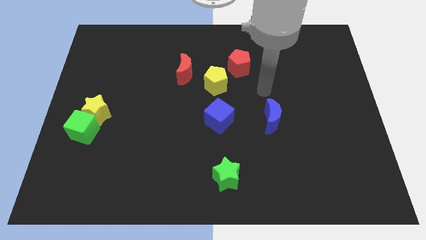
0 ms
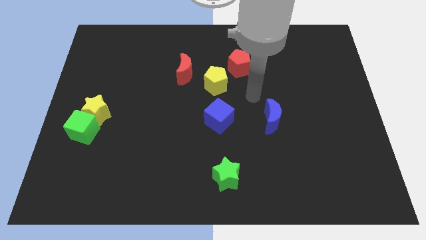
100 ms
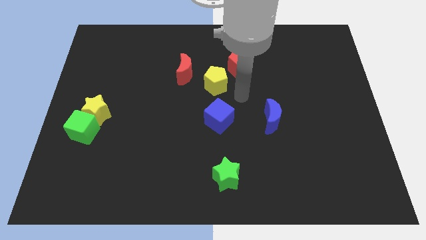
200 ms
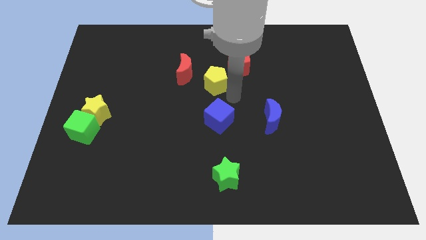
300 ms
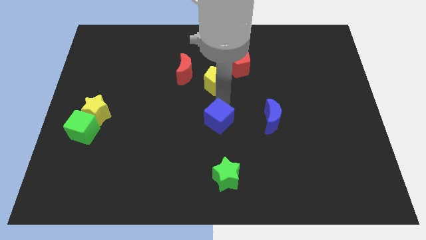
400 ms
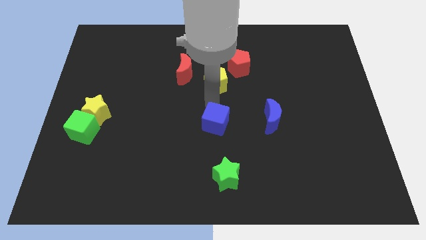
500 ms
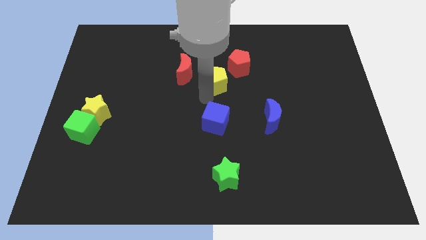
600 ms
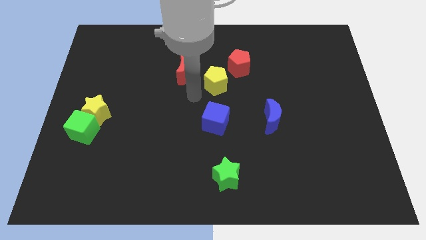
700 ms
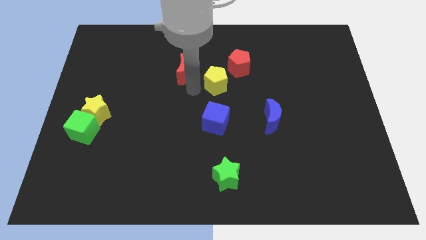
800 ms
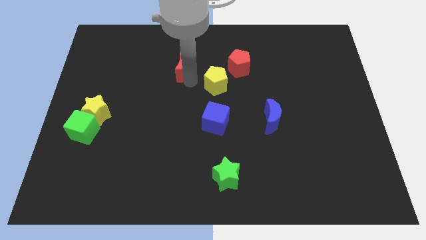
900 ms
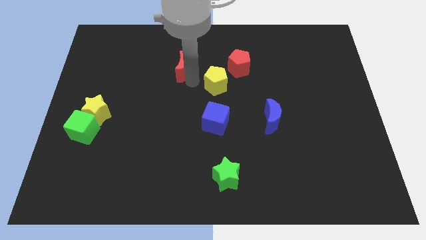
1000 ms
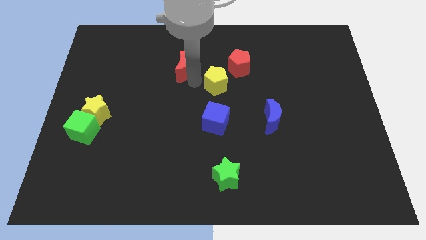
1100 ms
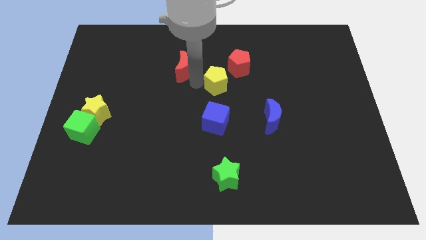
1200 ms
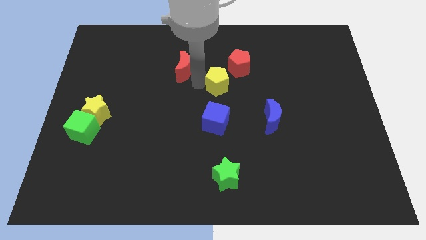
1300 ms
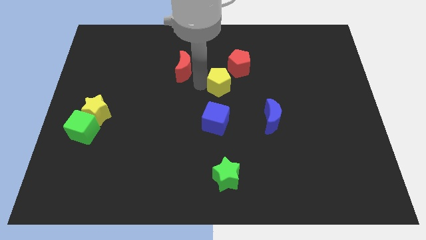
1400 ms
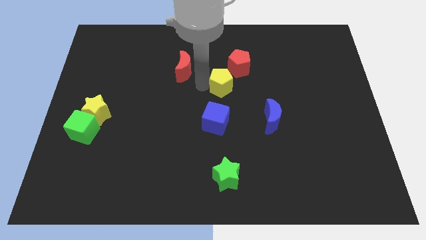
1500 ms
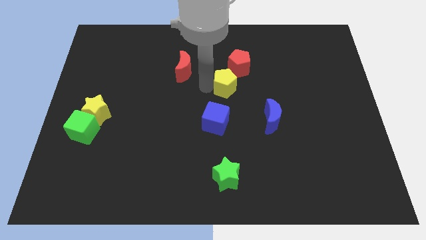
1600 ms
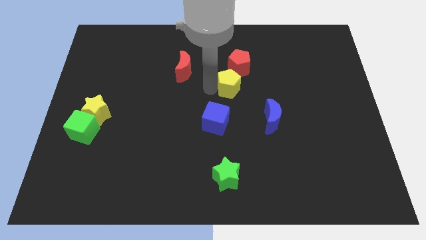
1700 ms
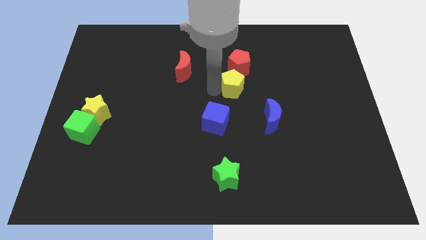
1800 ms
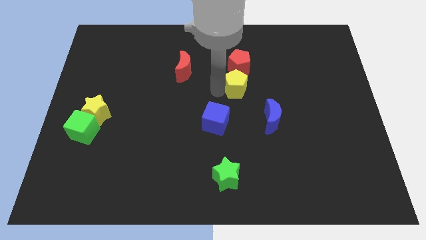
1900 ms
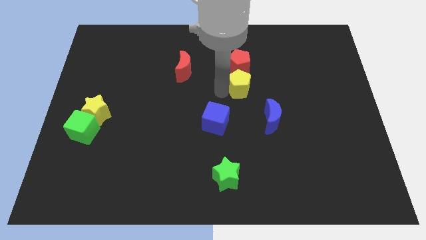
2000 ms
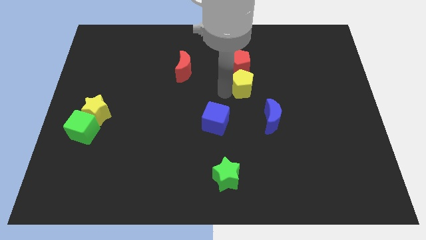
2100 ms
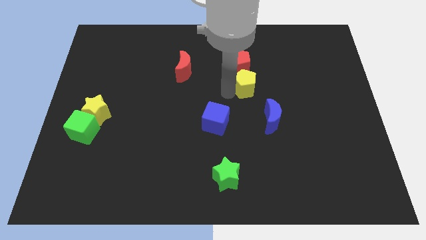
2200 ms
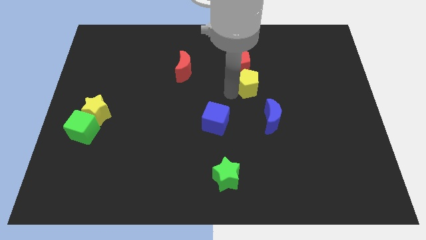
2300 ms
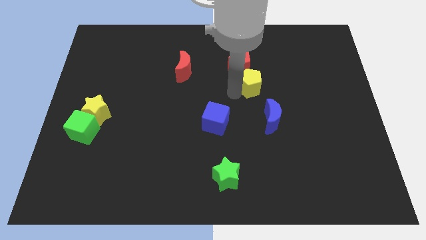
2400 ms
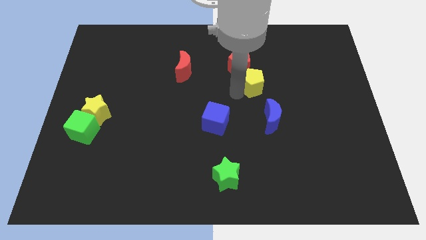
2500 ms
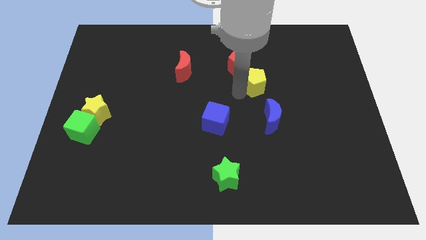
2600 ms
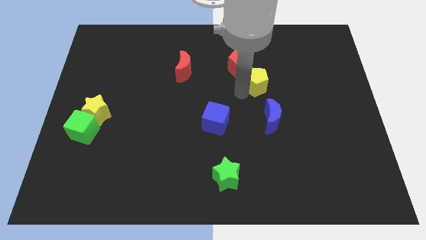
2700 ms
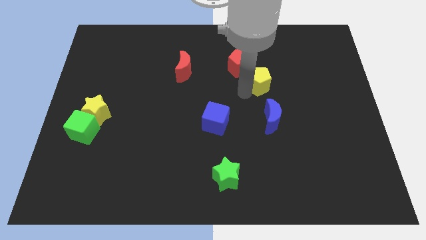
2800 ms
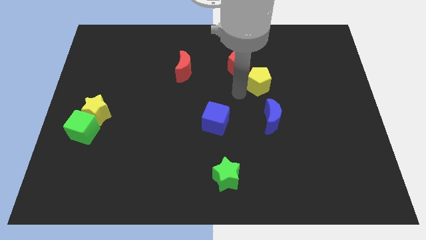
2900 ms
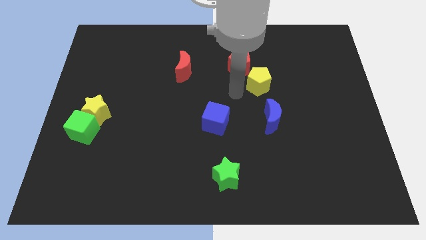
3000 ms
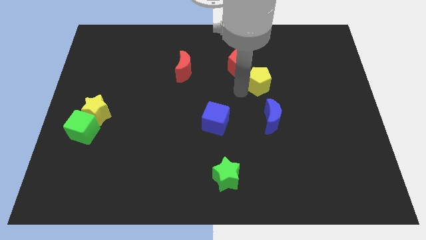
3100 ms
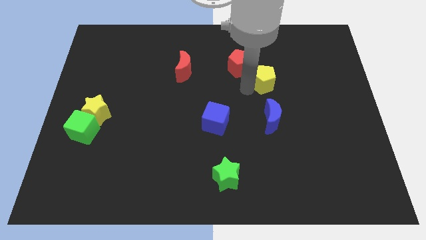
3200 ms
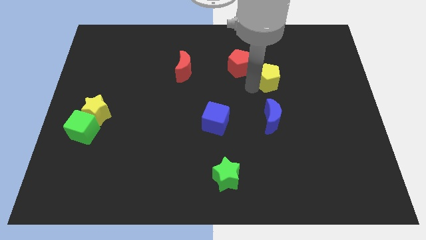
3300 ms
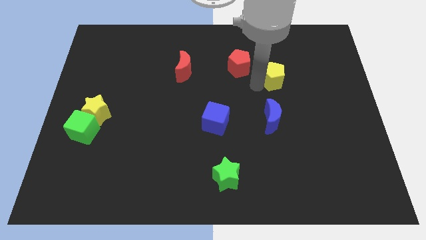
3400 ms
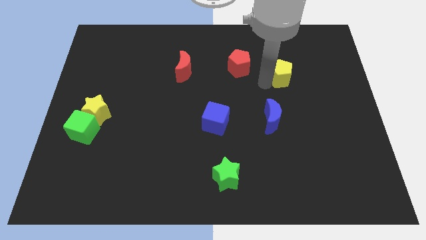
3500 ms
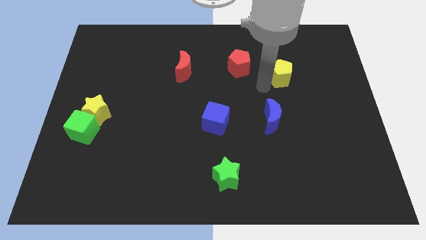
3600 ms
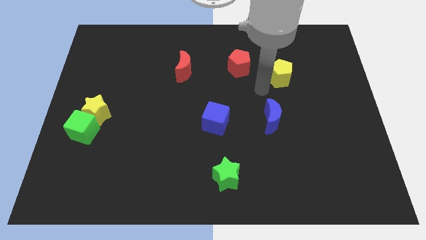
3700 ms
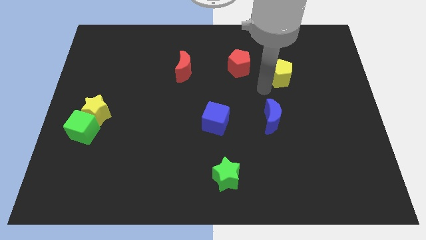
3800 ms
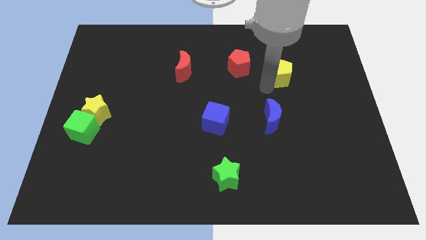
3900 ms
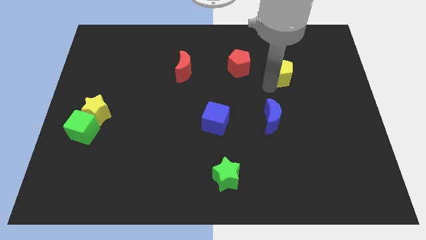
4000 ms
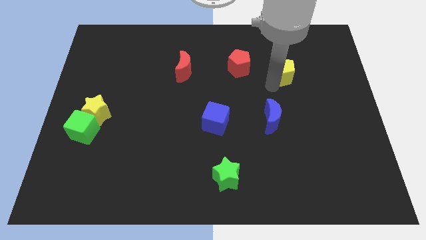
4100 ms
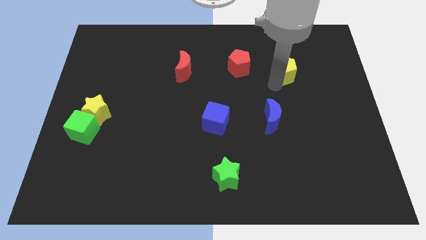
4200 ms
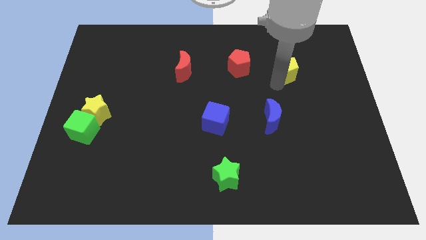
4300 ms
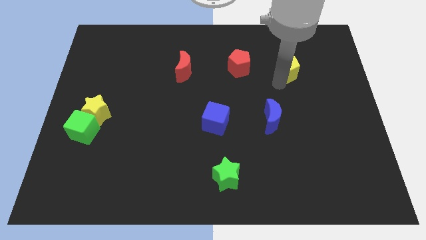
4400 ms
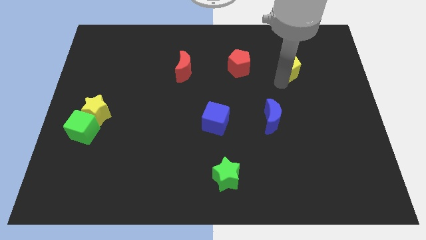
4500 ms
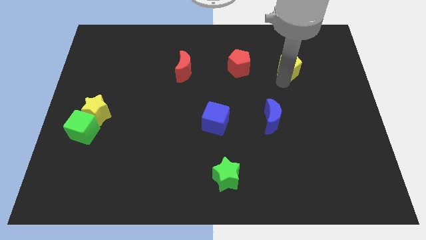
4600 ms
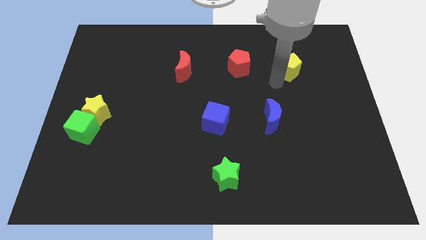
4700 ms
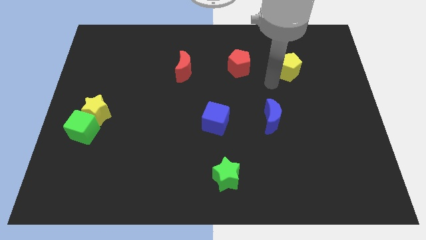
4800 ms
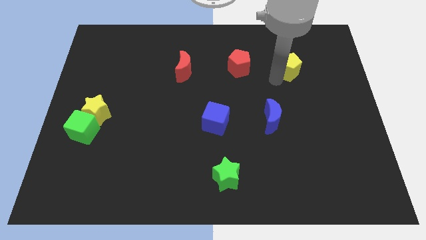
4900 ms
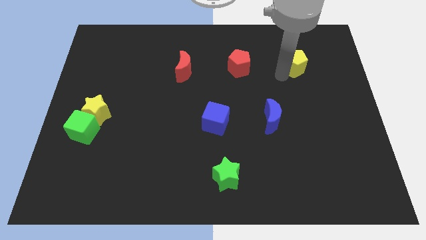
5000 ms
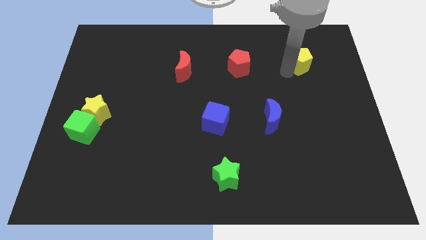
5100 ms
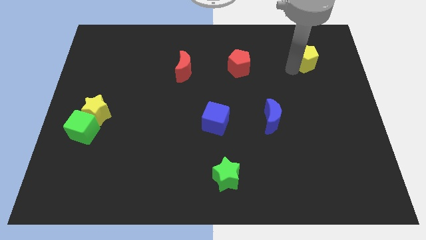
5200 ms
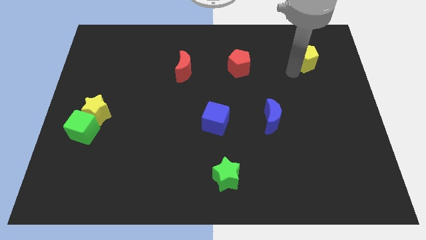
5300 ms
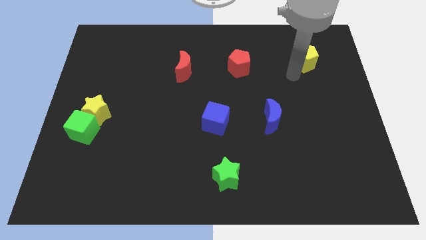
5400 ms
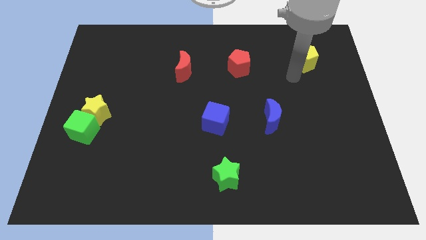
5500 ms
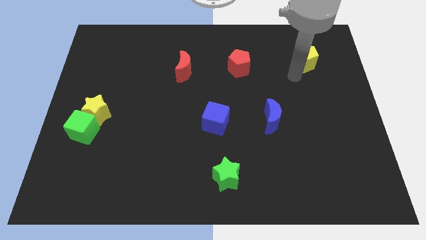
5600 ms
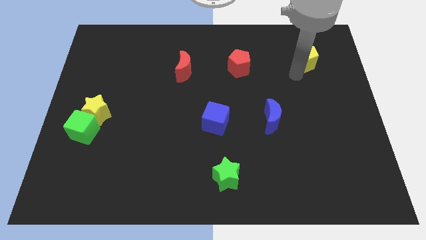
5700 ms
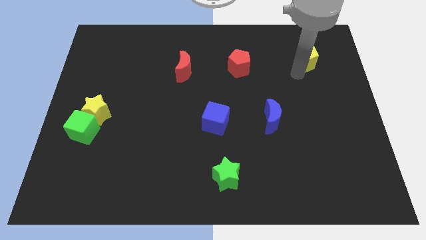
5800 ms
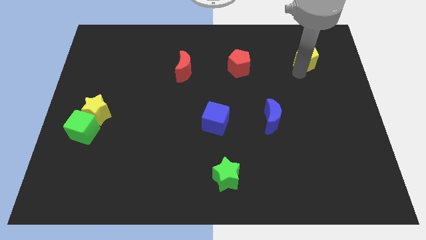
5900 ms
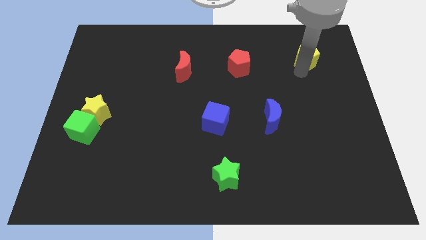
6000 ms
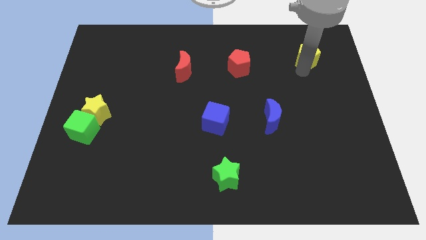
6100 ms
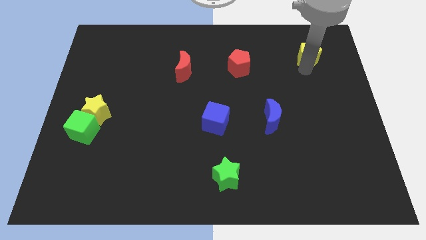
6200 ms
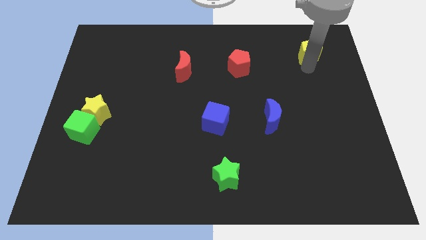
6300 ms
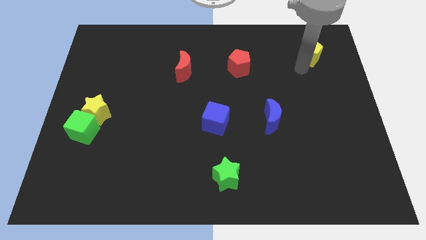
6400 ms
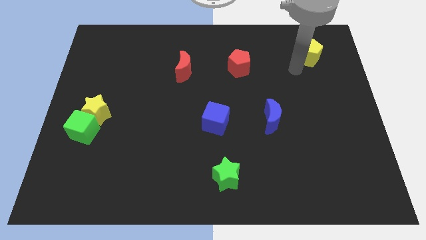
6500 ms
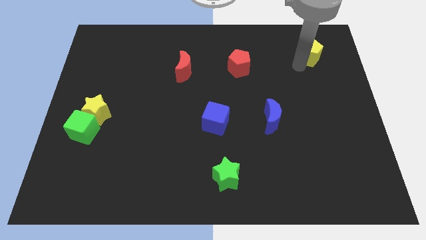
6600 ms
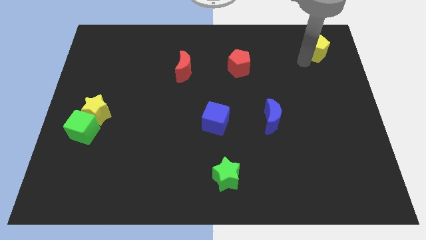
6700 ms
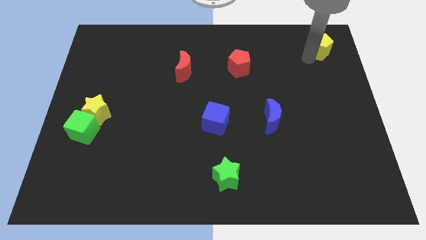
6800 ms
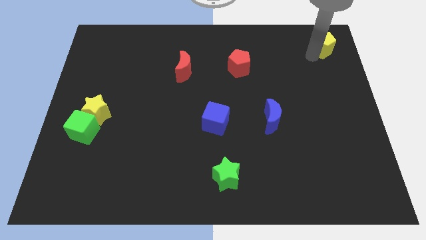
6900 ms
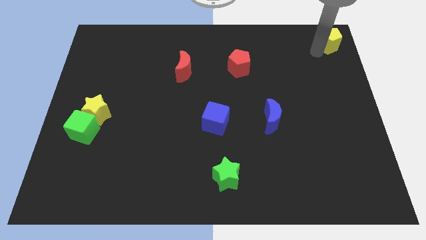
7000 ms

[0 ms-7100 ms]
put the yellow pentagon to the top right of the board
